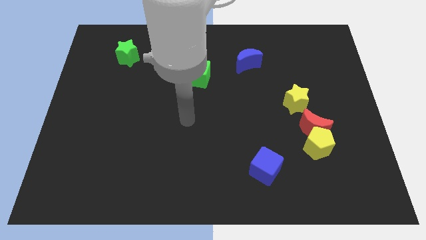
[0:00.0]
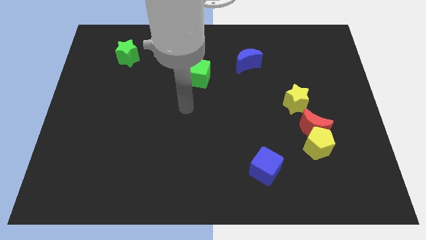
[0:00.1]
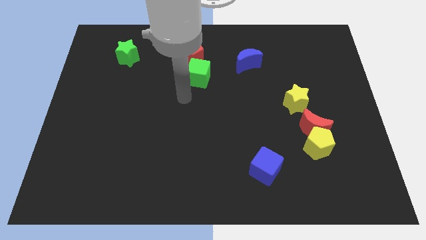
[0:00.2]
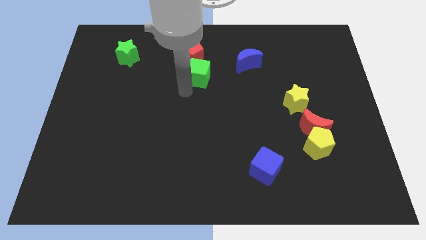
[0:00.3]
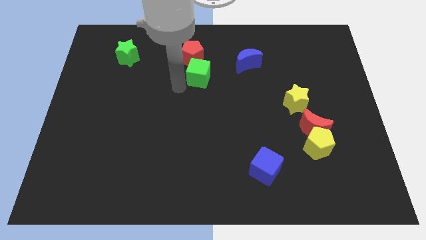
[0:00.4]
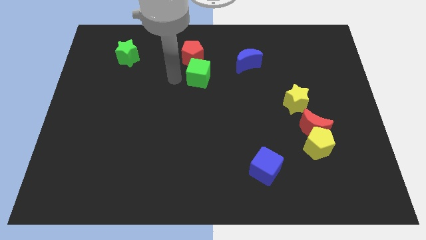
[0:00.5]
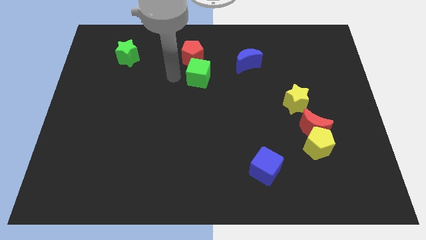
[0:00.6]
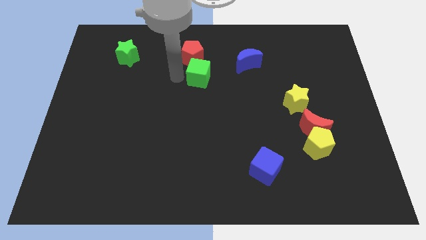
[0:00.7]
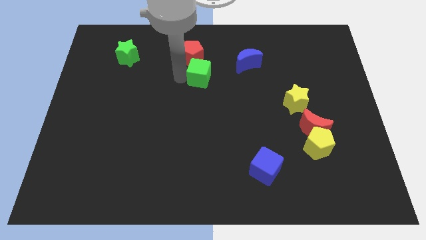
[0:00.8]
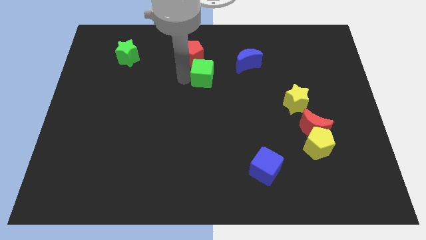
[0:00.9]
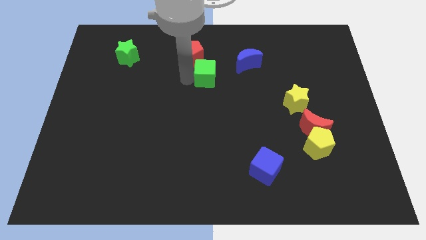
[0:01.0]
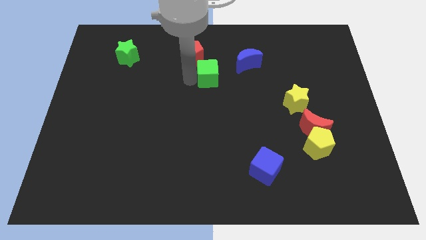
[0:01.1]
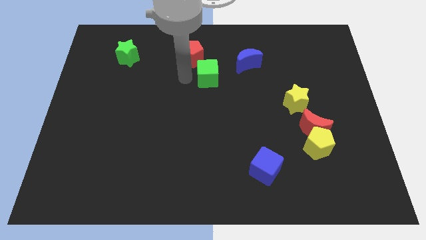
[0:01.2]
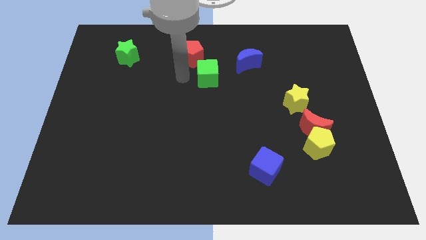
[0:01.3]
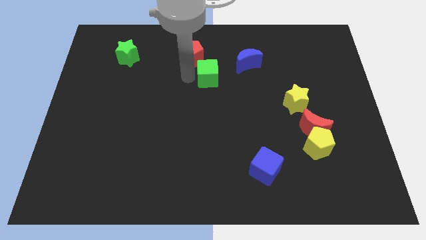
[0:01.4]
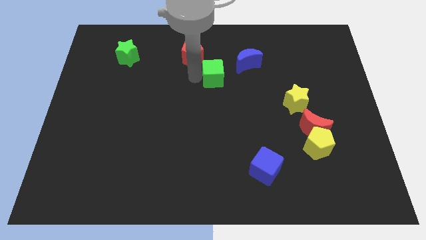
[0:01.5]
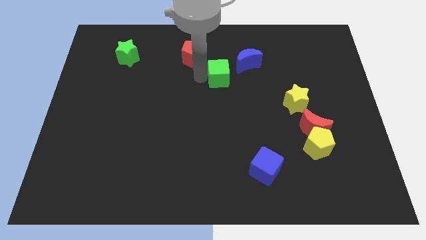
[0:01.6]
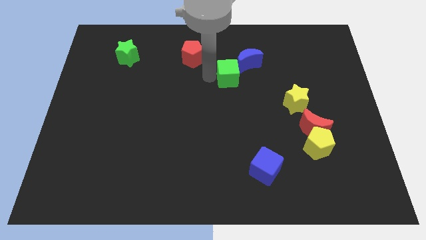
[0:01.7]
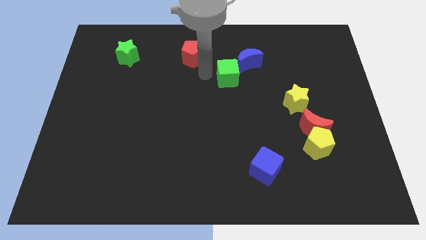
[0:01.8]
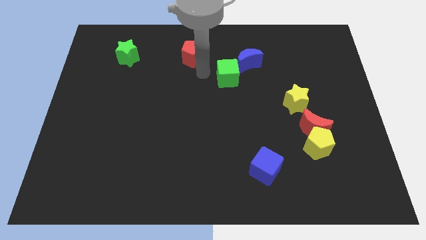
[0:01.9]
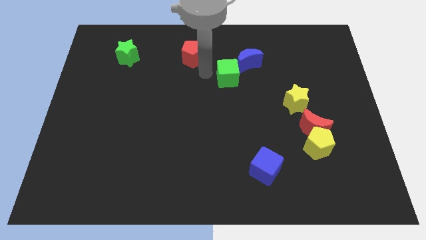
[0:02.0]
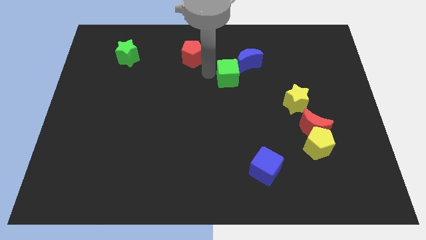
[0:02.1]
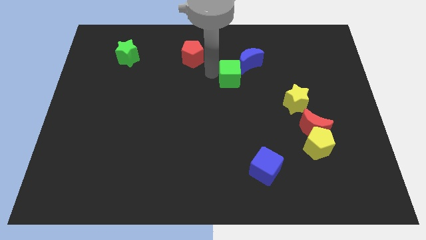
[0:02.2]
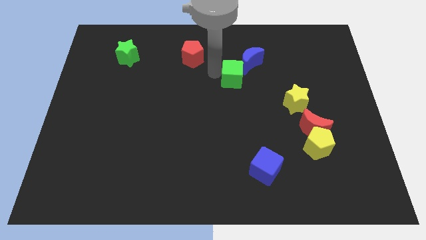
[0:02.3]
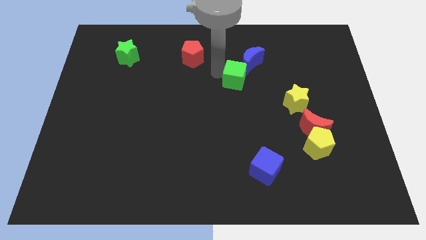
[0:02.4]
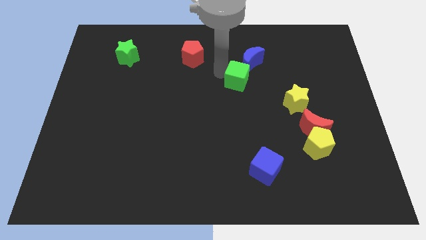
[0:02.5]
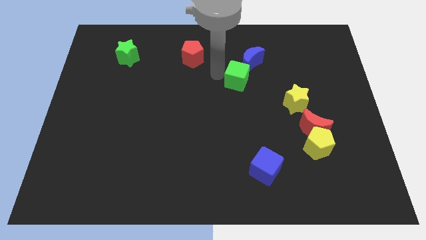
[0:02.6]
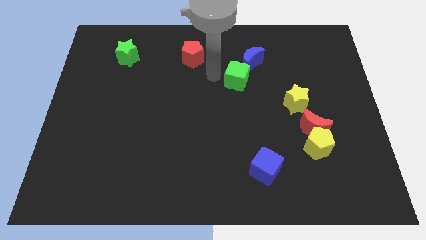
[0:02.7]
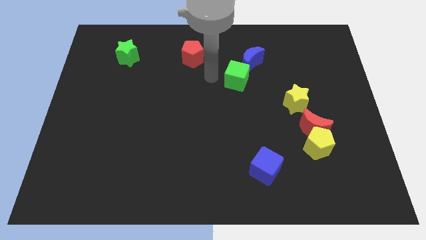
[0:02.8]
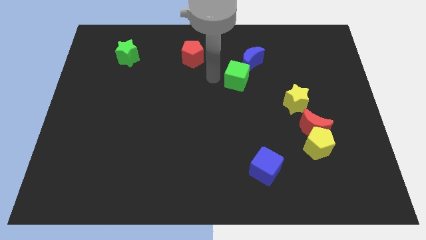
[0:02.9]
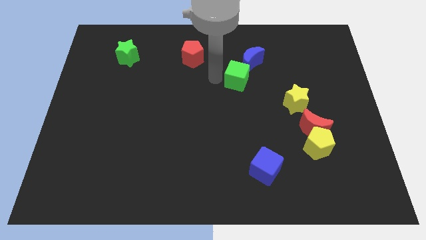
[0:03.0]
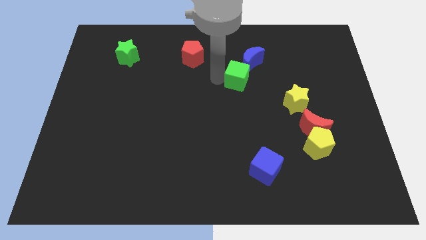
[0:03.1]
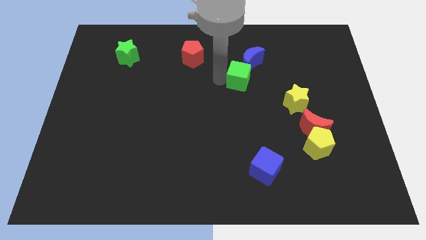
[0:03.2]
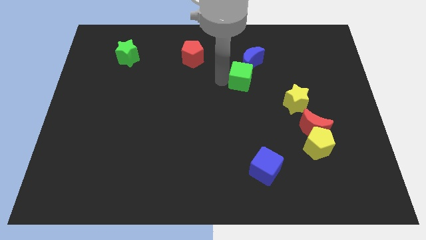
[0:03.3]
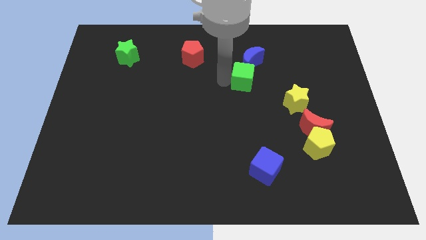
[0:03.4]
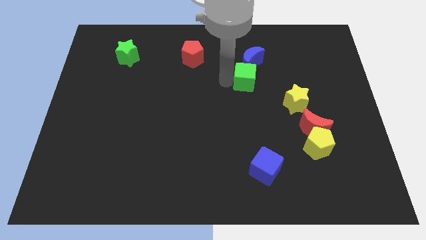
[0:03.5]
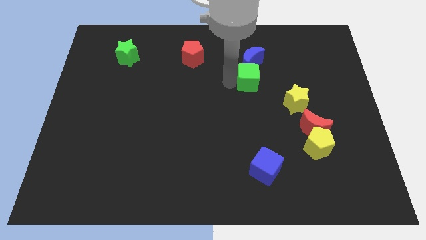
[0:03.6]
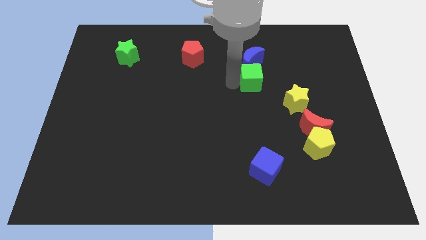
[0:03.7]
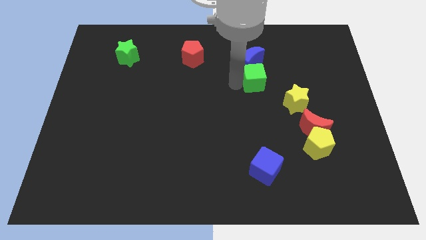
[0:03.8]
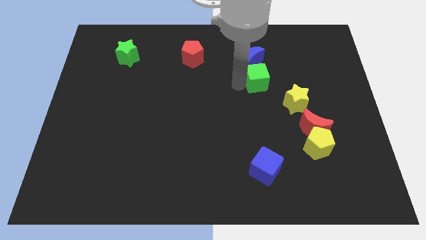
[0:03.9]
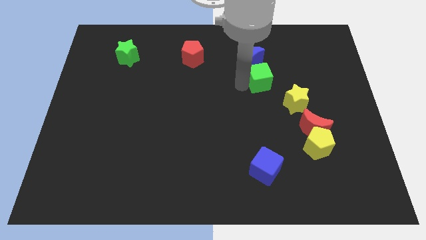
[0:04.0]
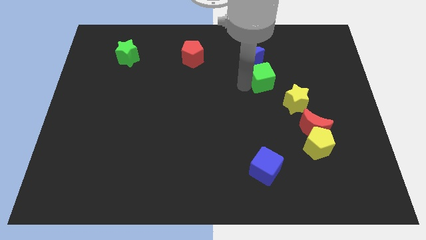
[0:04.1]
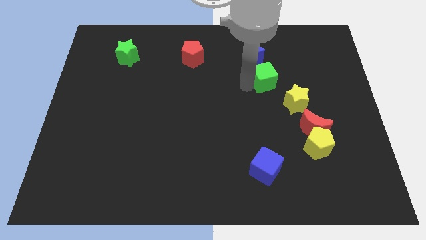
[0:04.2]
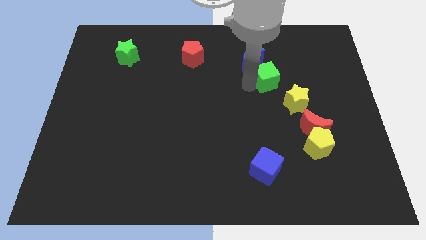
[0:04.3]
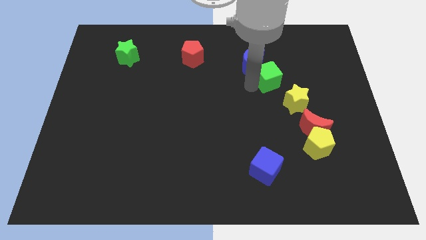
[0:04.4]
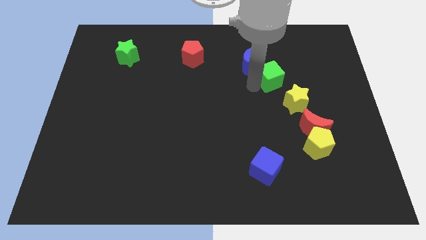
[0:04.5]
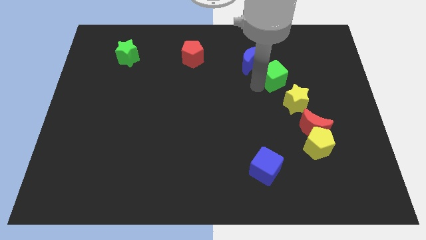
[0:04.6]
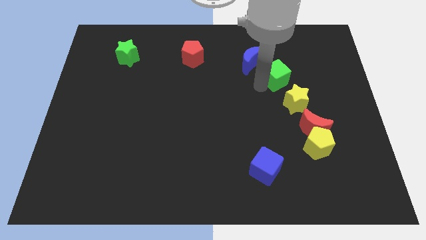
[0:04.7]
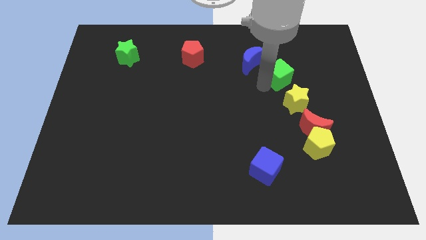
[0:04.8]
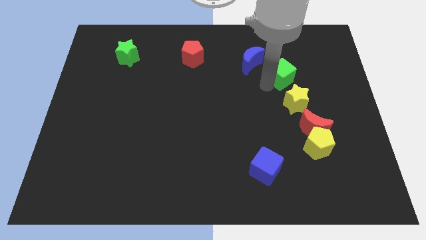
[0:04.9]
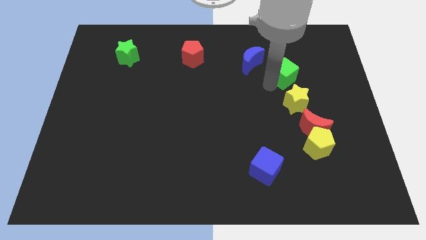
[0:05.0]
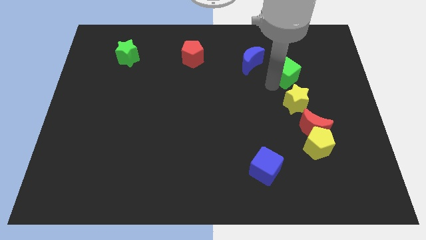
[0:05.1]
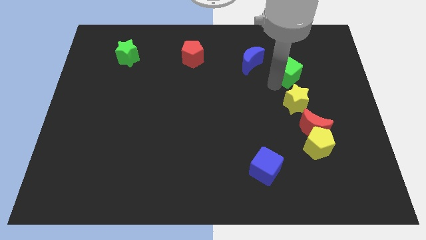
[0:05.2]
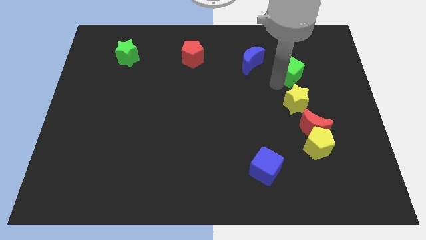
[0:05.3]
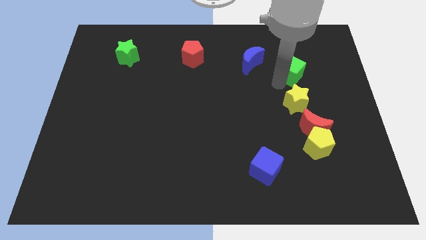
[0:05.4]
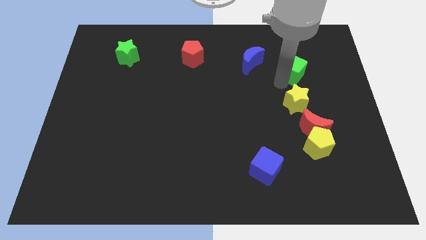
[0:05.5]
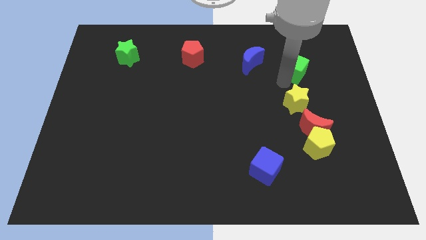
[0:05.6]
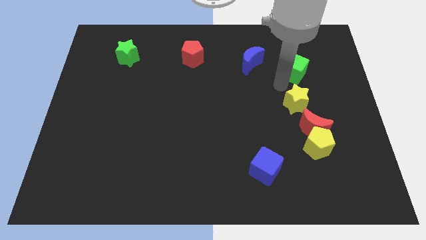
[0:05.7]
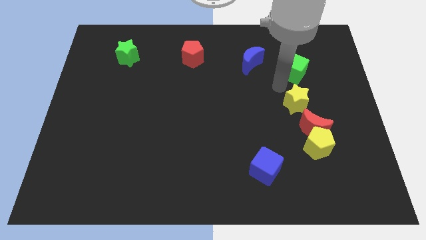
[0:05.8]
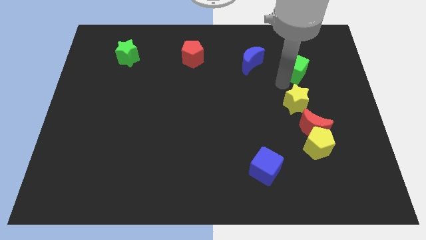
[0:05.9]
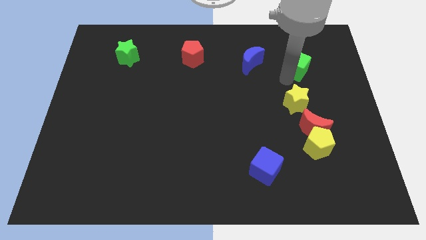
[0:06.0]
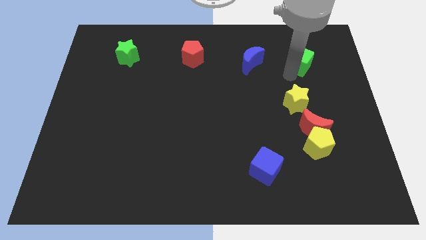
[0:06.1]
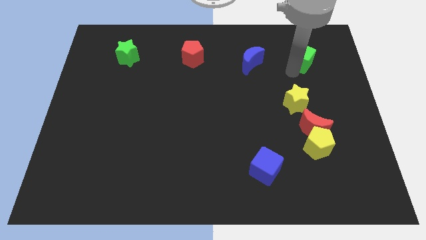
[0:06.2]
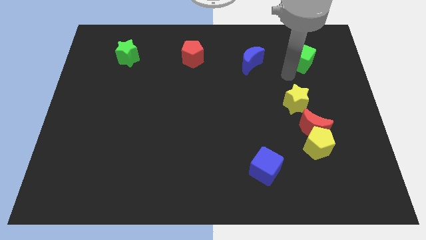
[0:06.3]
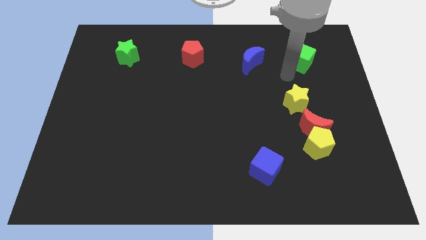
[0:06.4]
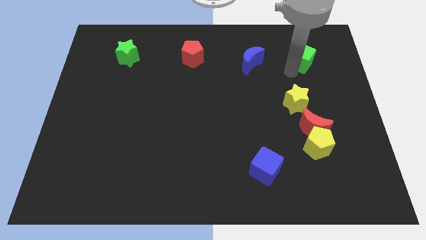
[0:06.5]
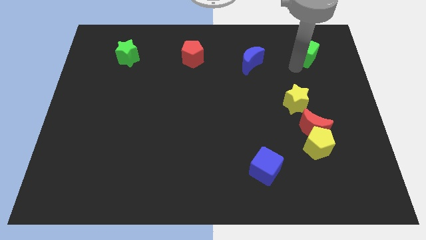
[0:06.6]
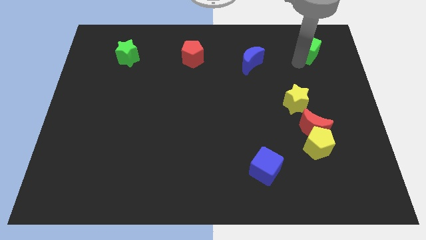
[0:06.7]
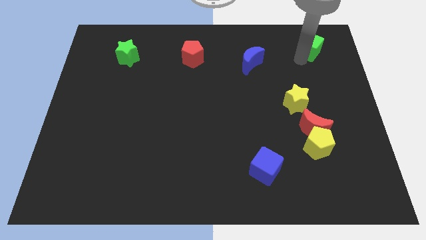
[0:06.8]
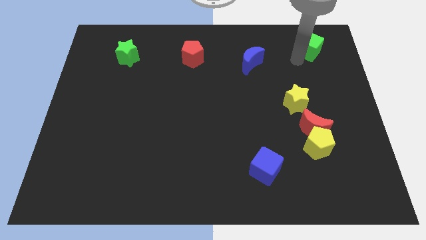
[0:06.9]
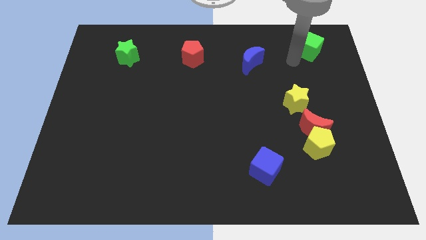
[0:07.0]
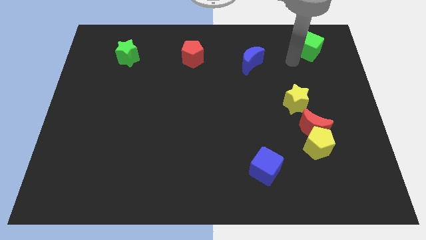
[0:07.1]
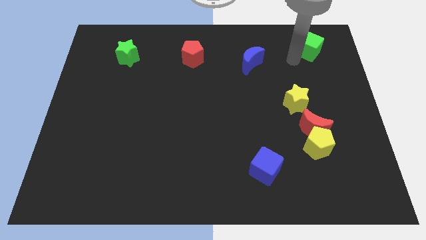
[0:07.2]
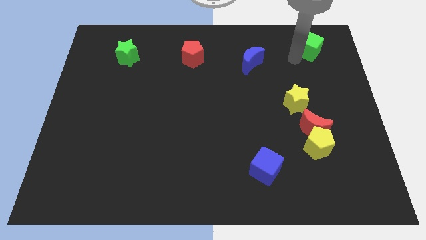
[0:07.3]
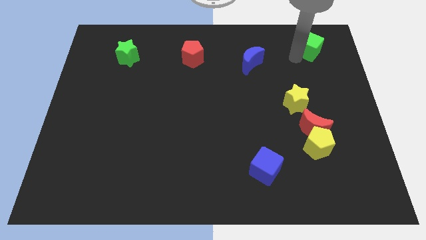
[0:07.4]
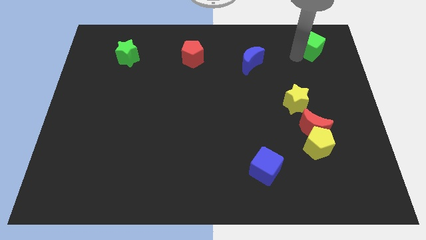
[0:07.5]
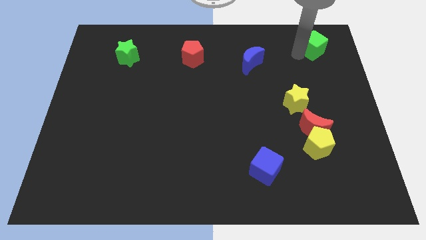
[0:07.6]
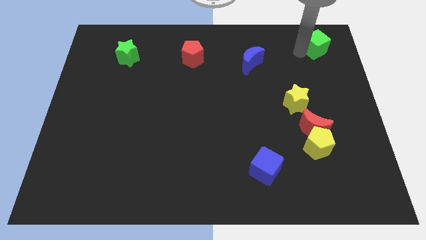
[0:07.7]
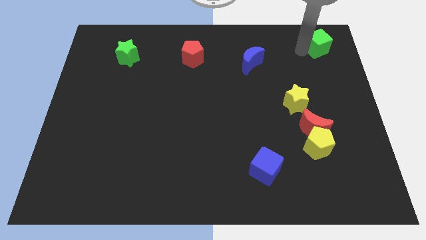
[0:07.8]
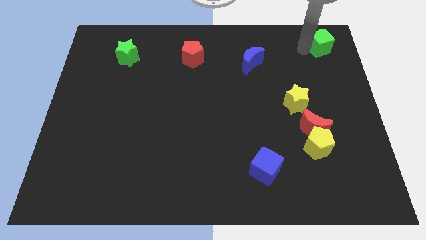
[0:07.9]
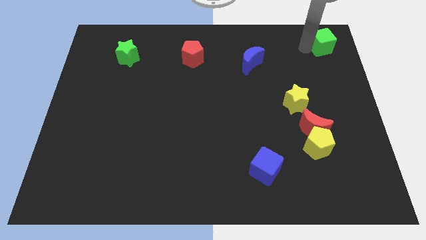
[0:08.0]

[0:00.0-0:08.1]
slide the green cube to the top right corner
